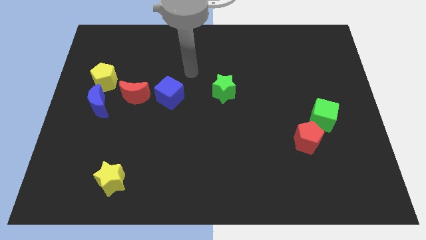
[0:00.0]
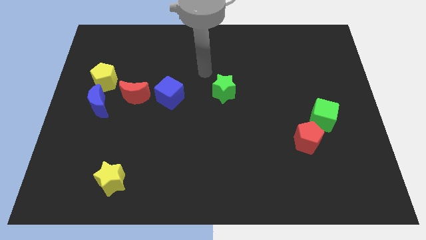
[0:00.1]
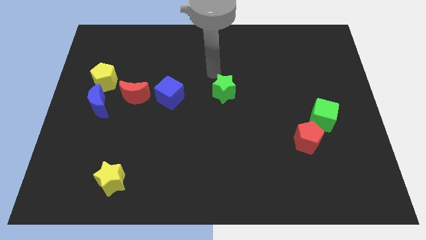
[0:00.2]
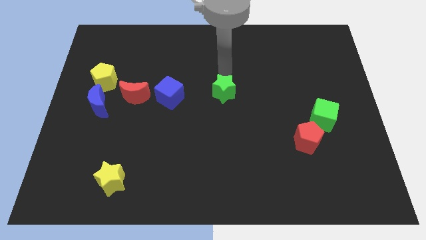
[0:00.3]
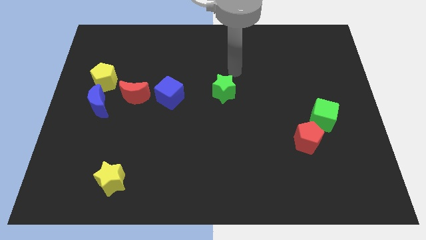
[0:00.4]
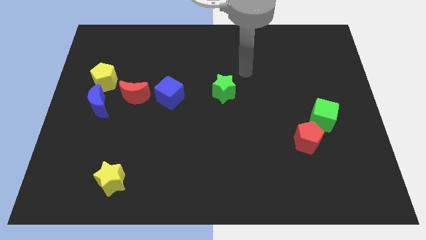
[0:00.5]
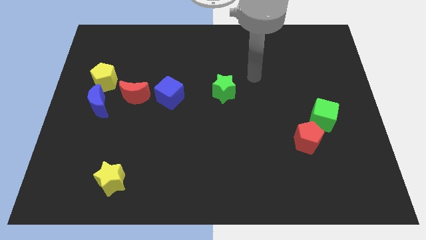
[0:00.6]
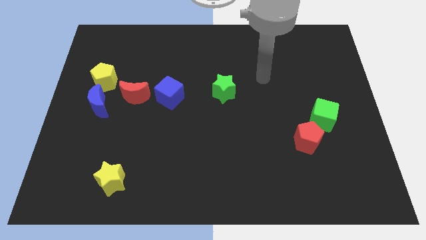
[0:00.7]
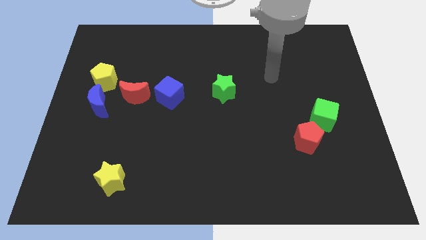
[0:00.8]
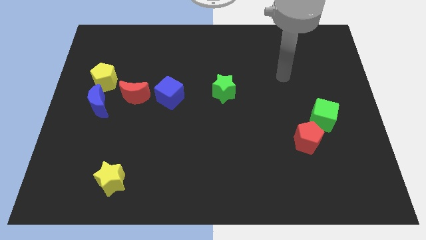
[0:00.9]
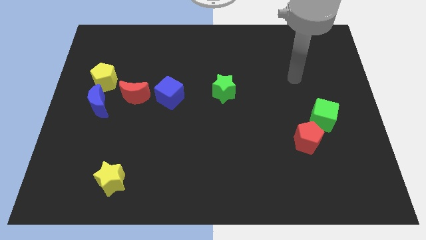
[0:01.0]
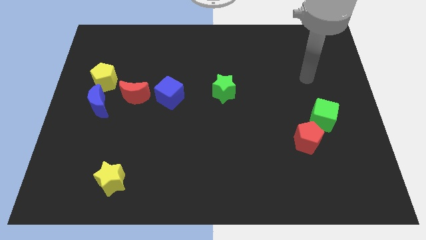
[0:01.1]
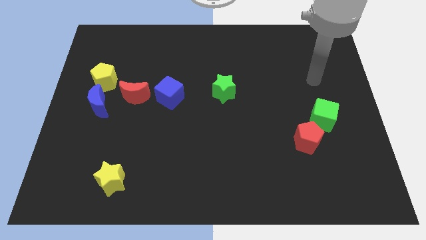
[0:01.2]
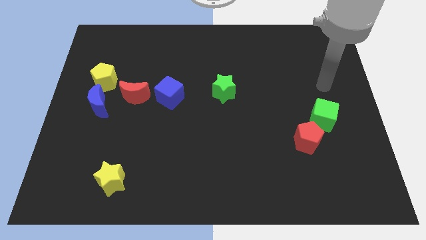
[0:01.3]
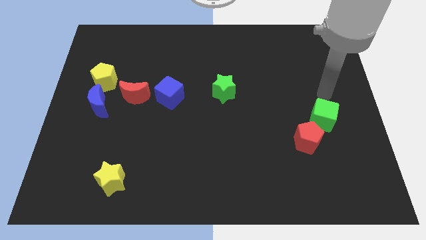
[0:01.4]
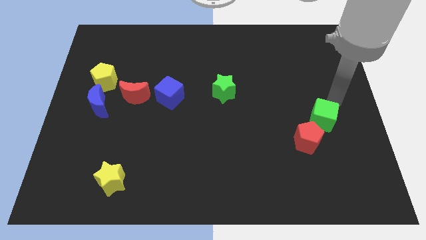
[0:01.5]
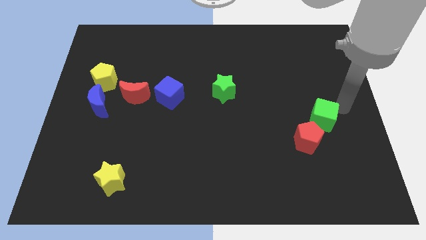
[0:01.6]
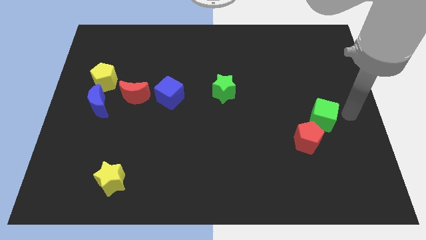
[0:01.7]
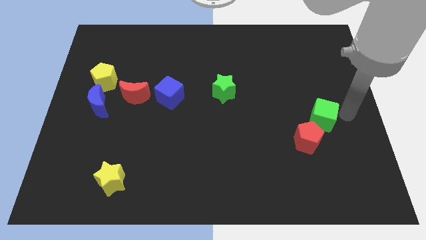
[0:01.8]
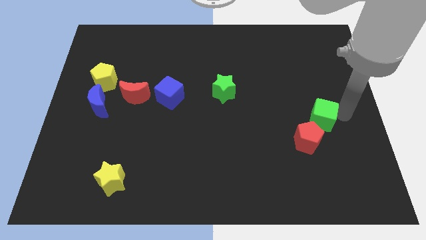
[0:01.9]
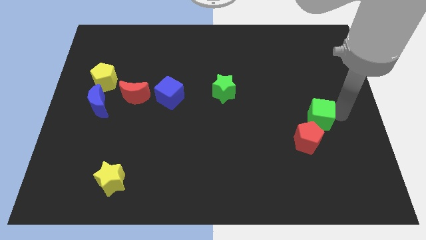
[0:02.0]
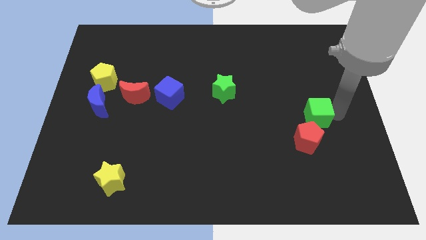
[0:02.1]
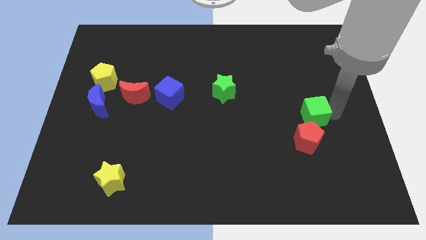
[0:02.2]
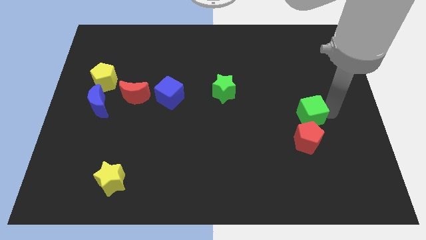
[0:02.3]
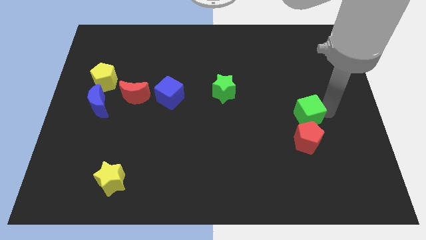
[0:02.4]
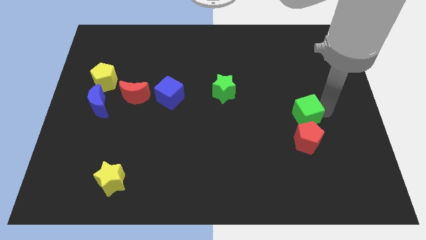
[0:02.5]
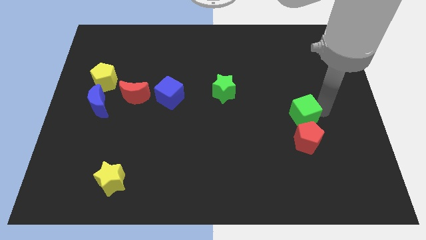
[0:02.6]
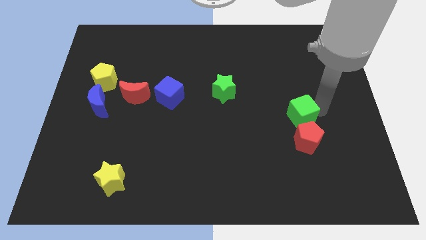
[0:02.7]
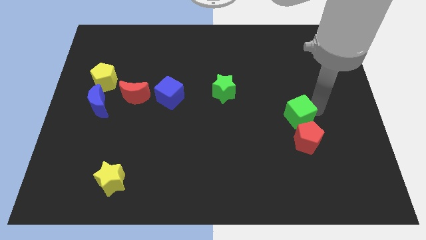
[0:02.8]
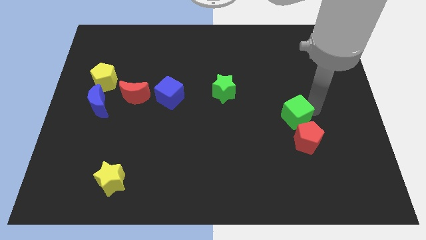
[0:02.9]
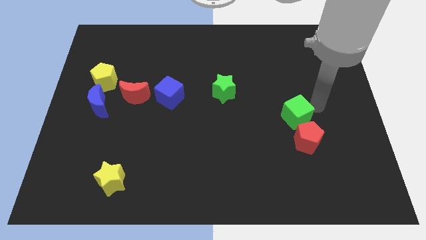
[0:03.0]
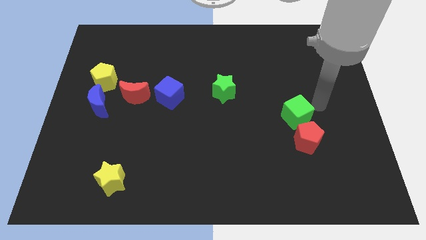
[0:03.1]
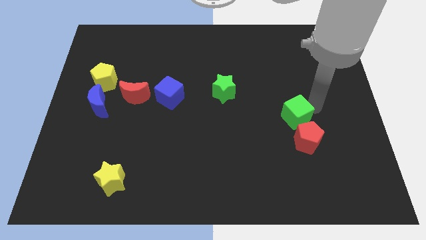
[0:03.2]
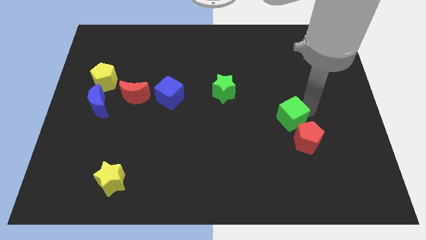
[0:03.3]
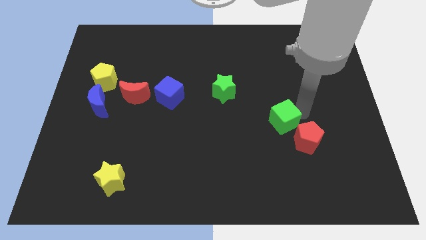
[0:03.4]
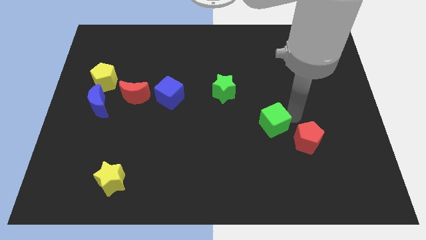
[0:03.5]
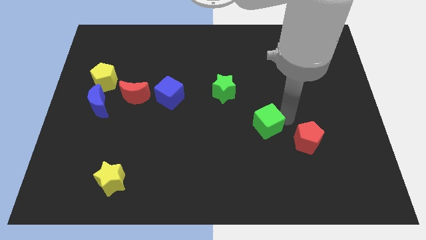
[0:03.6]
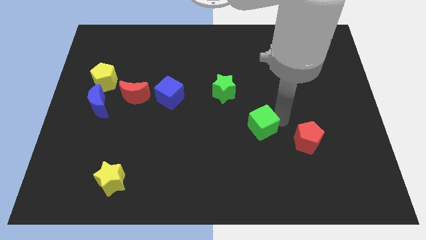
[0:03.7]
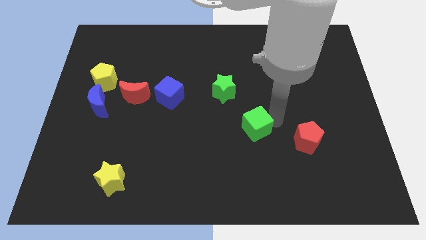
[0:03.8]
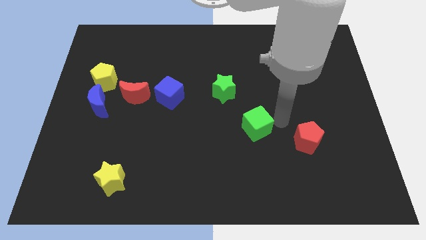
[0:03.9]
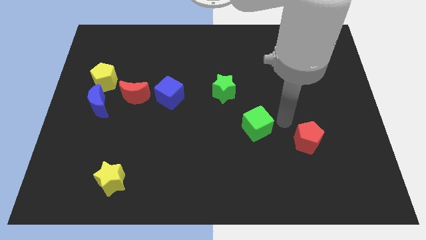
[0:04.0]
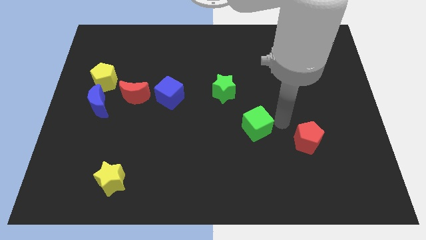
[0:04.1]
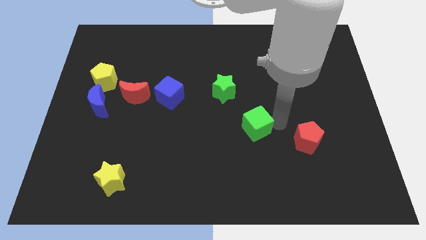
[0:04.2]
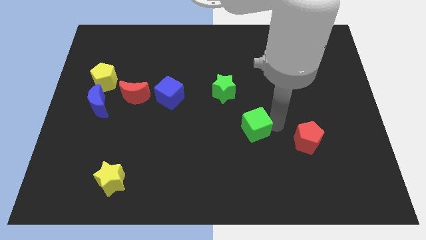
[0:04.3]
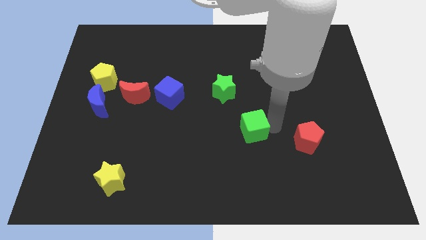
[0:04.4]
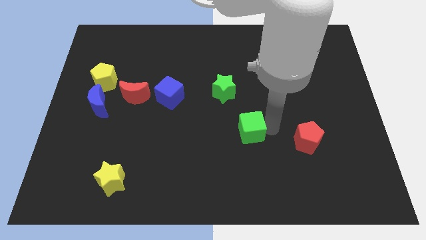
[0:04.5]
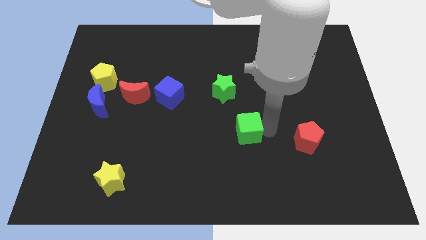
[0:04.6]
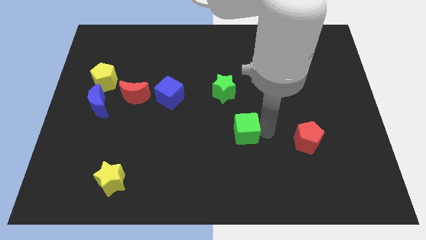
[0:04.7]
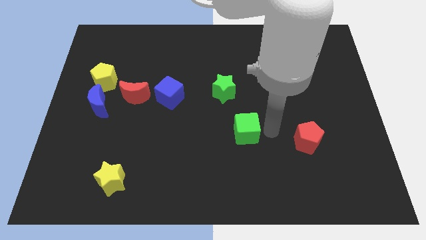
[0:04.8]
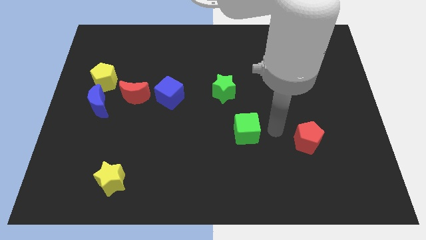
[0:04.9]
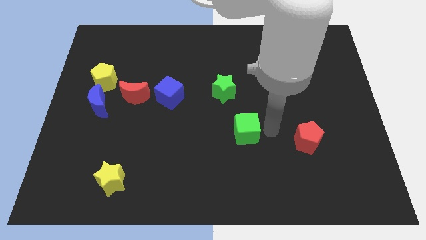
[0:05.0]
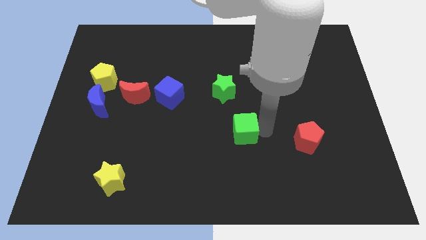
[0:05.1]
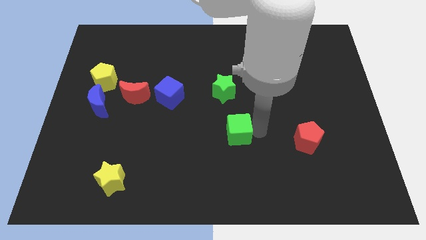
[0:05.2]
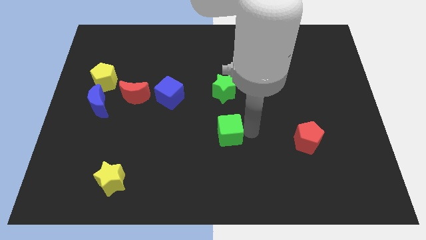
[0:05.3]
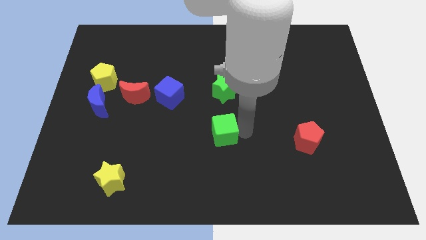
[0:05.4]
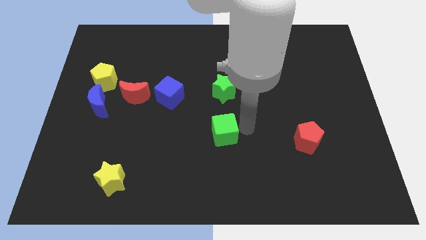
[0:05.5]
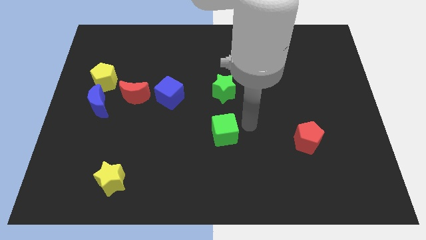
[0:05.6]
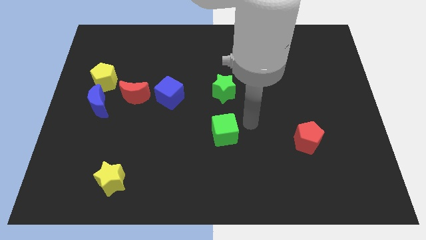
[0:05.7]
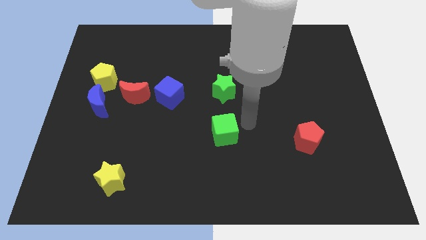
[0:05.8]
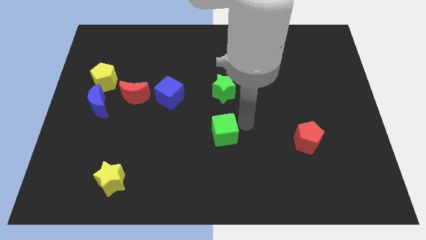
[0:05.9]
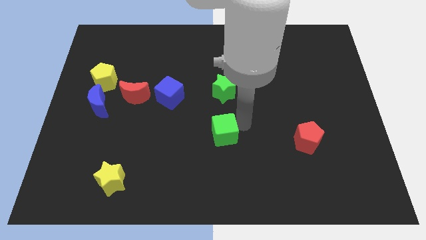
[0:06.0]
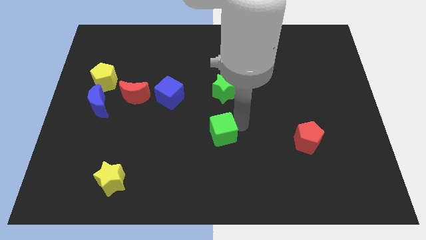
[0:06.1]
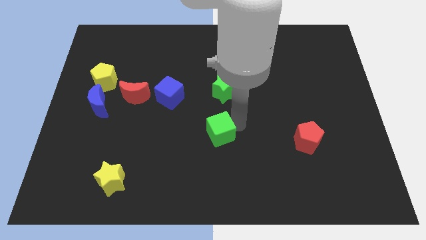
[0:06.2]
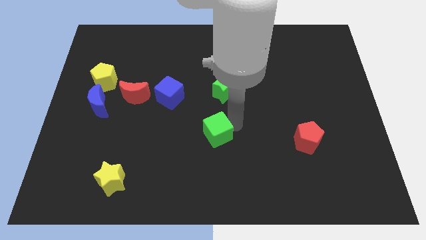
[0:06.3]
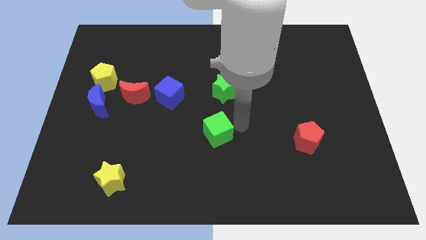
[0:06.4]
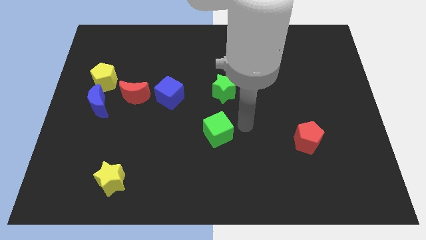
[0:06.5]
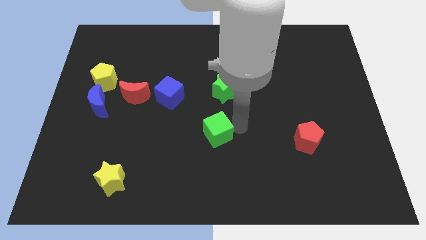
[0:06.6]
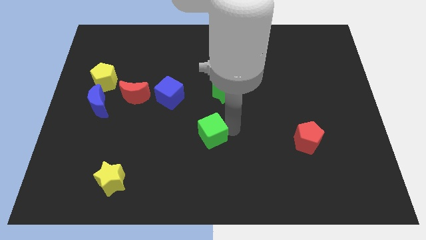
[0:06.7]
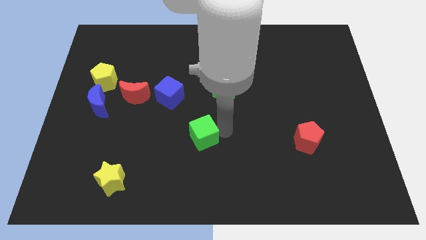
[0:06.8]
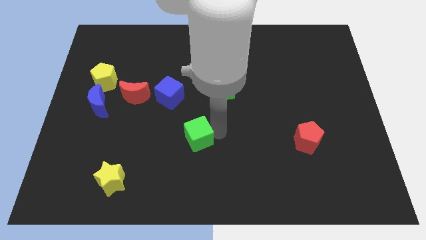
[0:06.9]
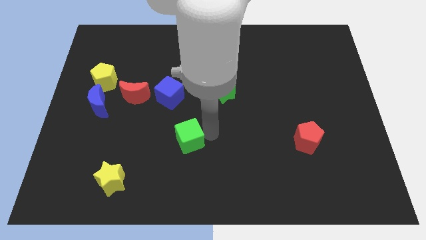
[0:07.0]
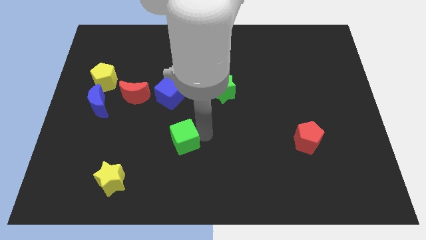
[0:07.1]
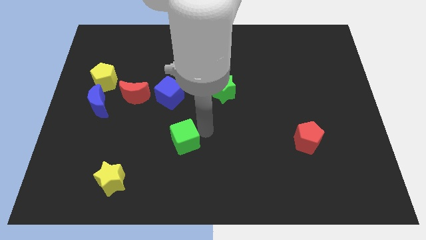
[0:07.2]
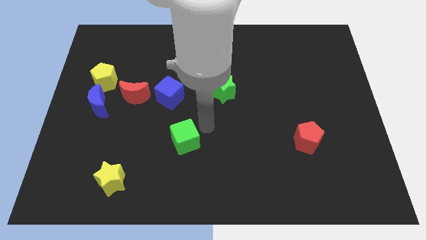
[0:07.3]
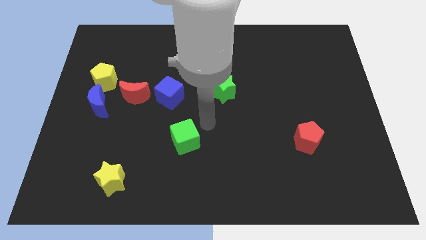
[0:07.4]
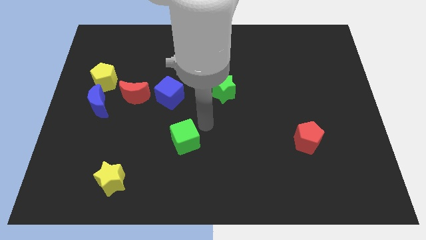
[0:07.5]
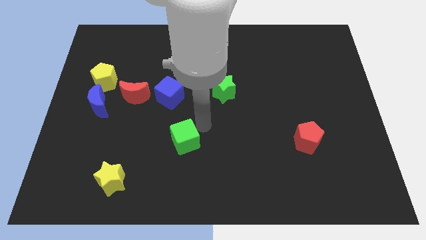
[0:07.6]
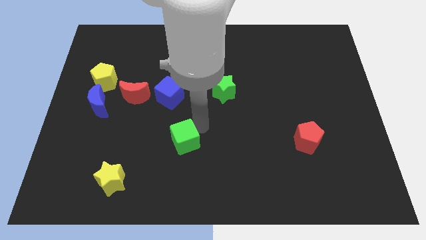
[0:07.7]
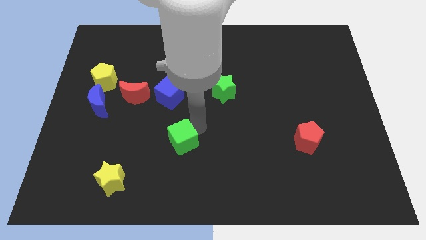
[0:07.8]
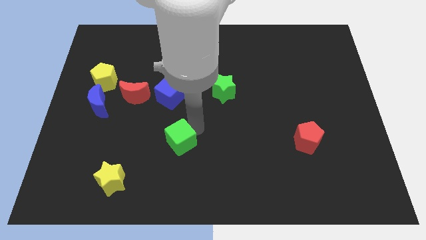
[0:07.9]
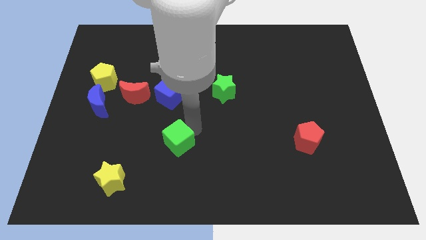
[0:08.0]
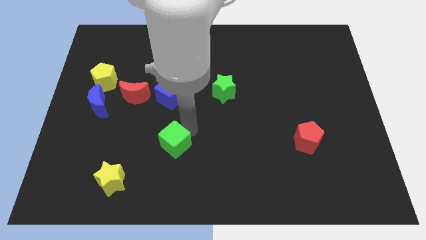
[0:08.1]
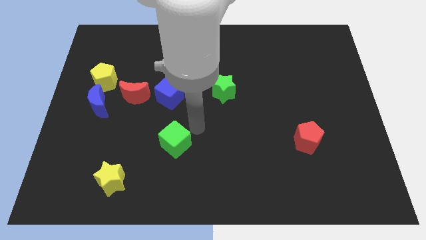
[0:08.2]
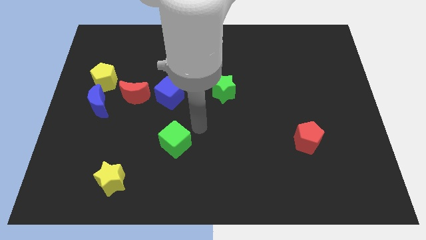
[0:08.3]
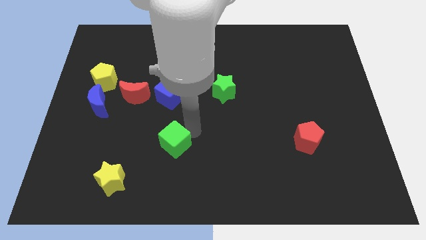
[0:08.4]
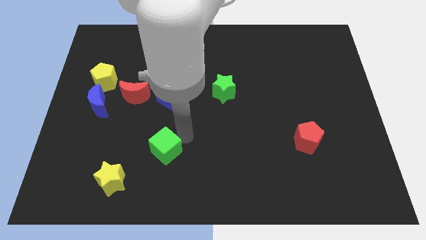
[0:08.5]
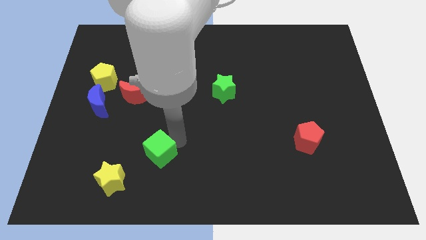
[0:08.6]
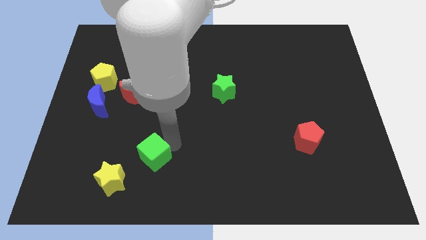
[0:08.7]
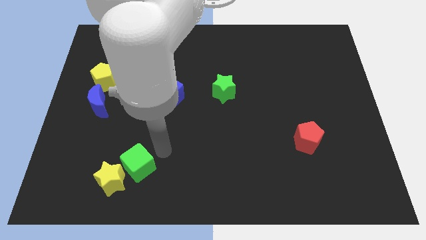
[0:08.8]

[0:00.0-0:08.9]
push the green cube to the yellow star
